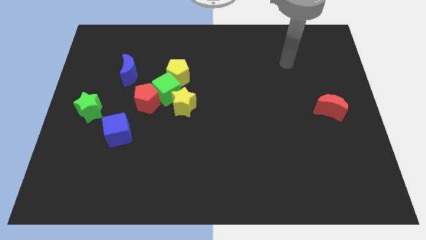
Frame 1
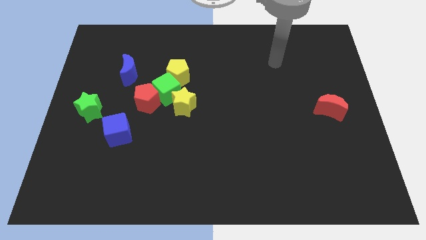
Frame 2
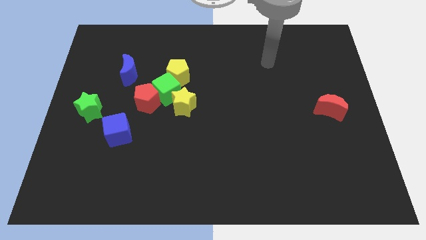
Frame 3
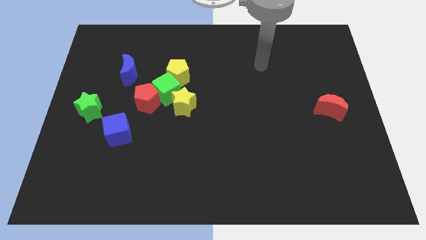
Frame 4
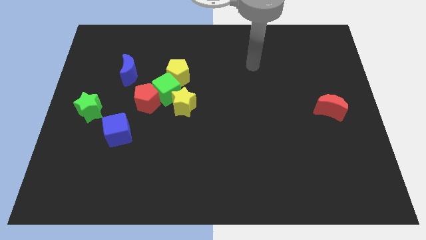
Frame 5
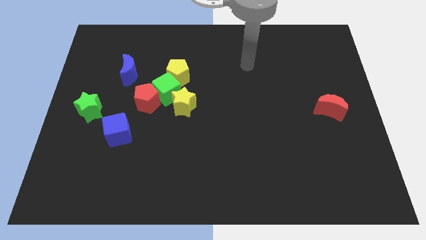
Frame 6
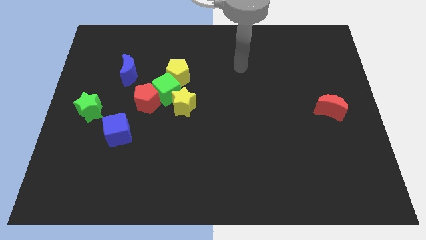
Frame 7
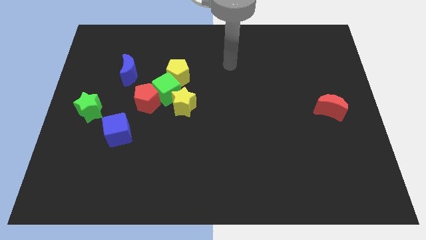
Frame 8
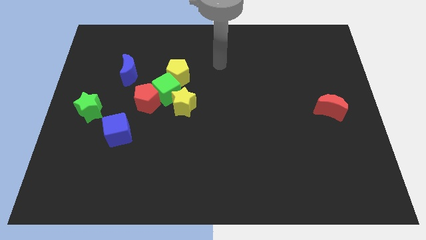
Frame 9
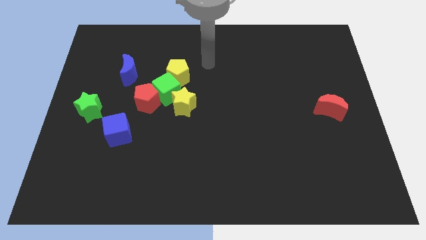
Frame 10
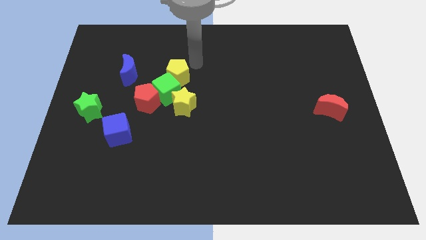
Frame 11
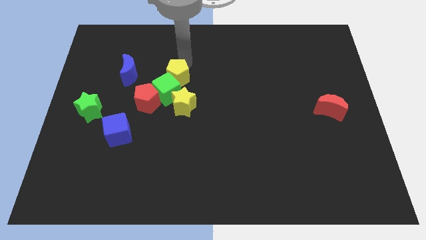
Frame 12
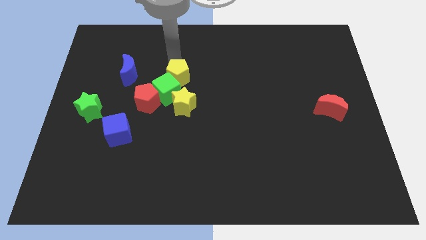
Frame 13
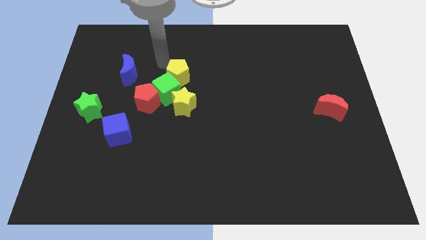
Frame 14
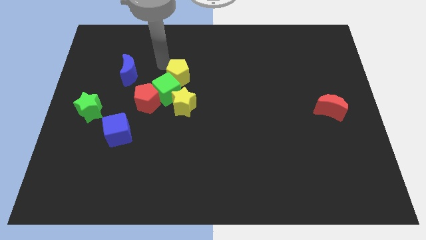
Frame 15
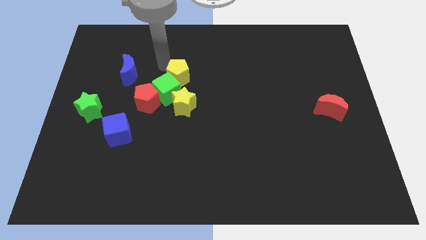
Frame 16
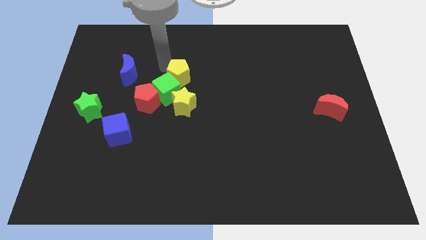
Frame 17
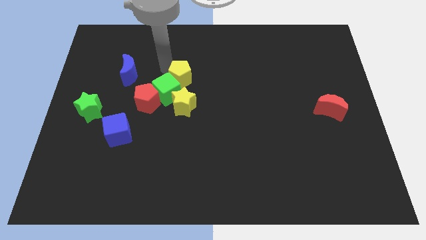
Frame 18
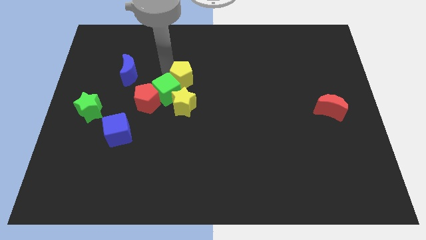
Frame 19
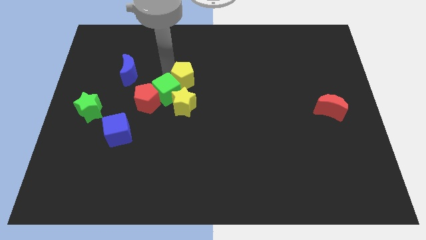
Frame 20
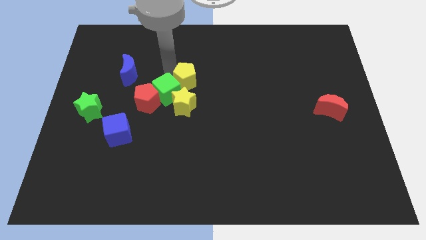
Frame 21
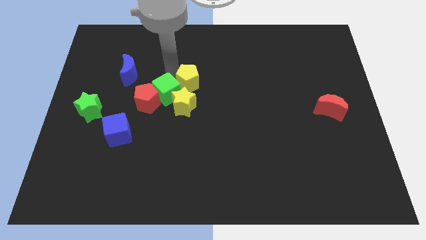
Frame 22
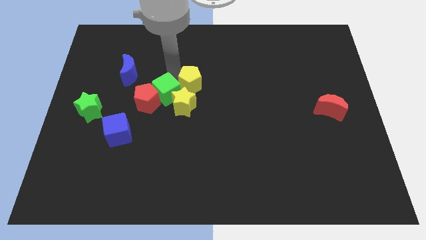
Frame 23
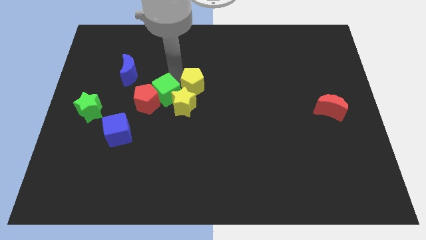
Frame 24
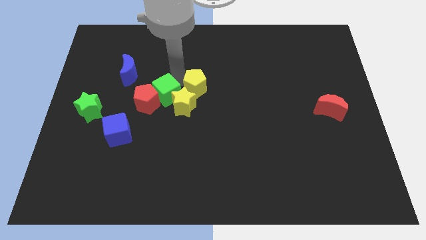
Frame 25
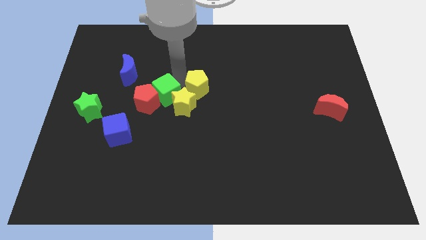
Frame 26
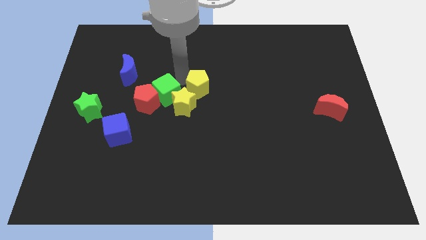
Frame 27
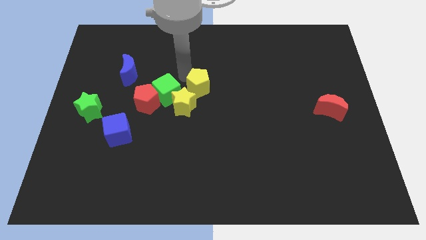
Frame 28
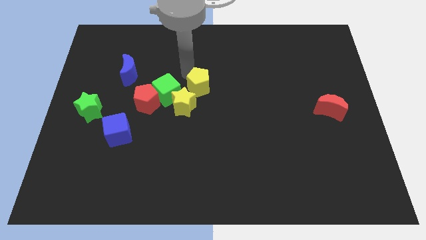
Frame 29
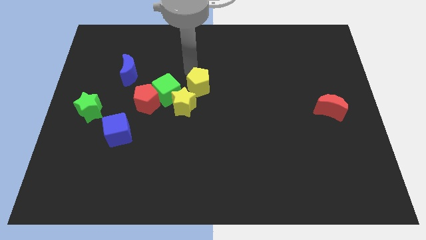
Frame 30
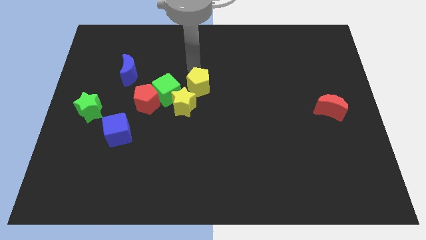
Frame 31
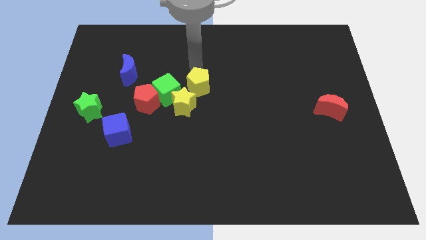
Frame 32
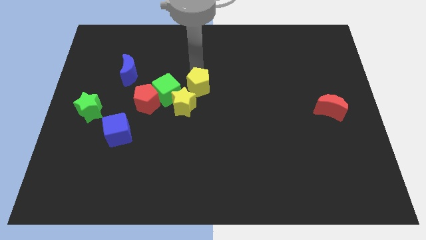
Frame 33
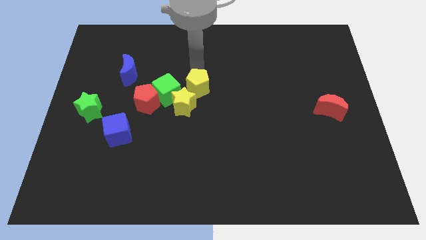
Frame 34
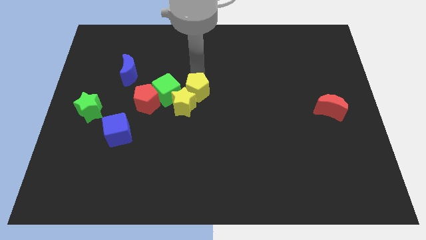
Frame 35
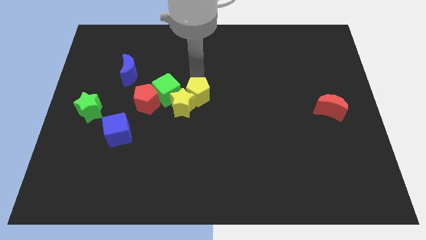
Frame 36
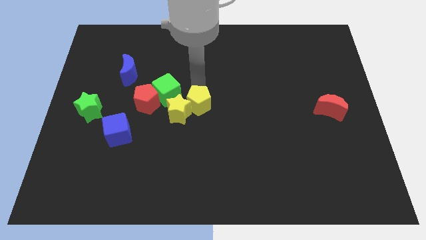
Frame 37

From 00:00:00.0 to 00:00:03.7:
slightly slide the yellow pentagon down

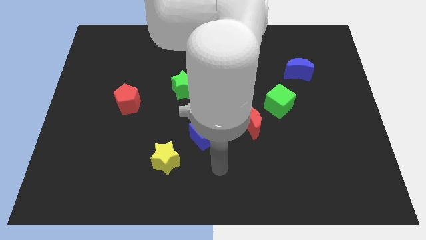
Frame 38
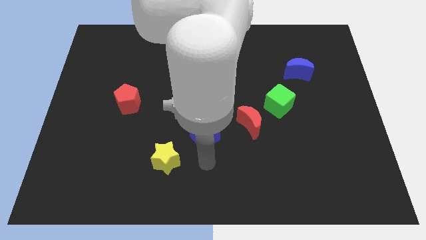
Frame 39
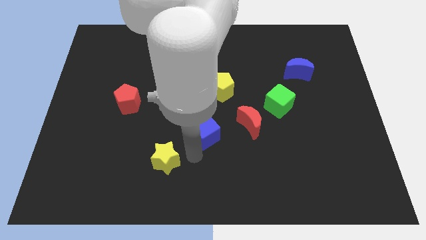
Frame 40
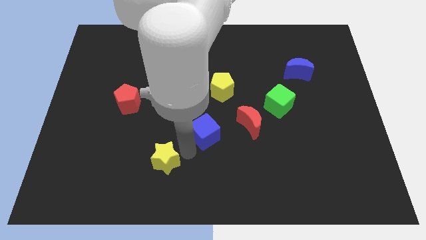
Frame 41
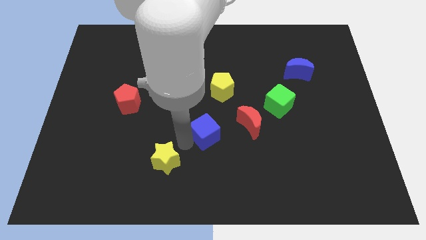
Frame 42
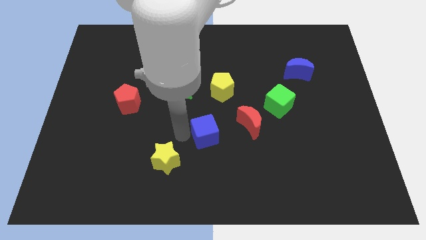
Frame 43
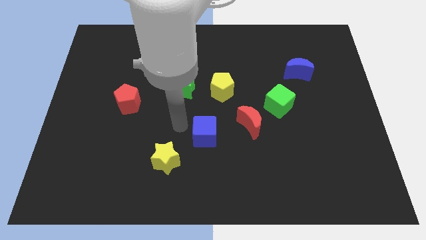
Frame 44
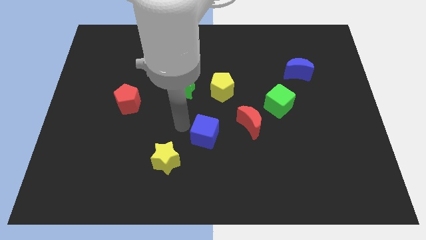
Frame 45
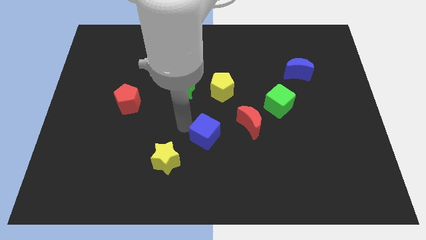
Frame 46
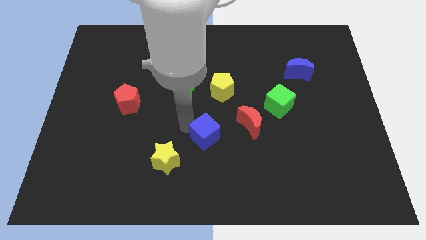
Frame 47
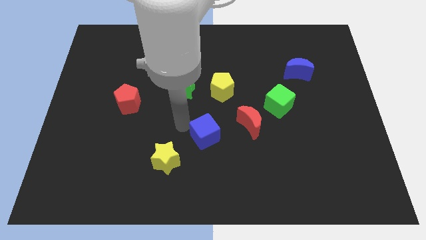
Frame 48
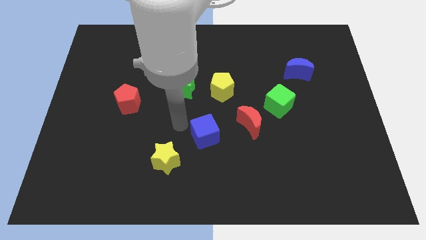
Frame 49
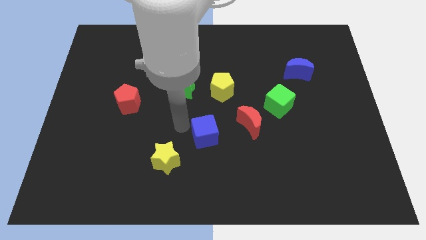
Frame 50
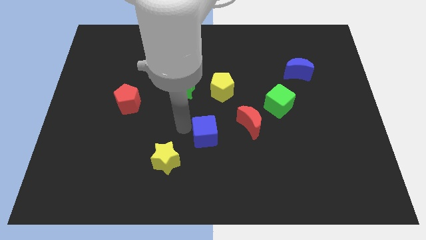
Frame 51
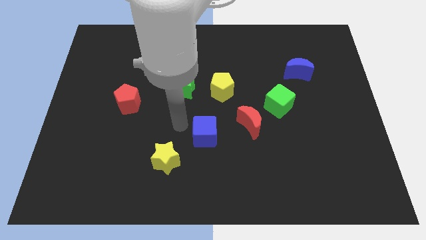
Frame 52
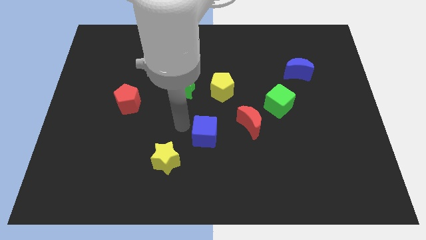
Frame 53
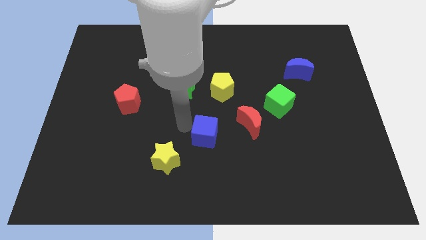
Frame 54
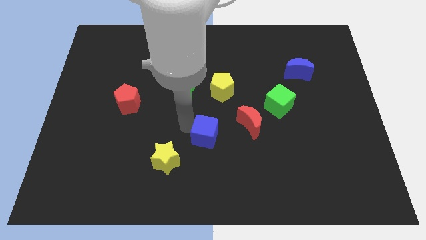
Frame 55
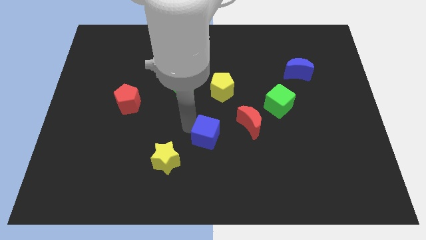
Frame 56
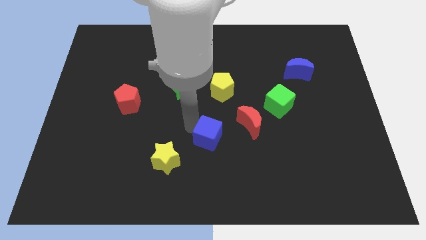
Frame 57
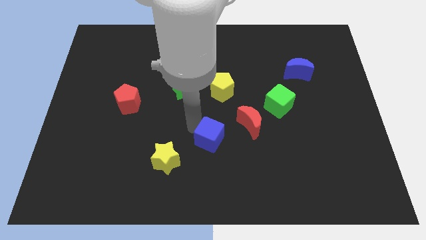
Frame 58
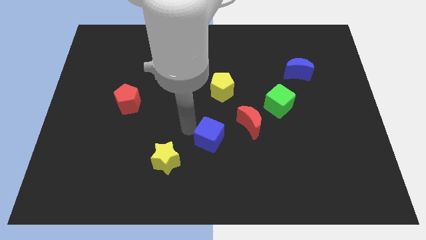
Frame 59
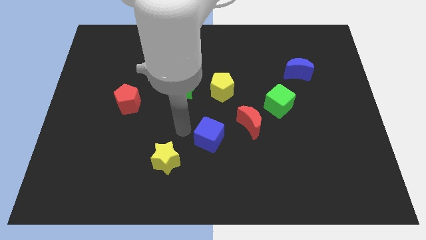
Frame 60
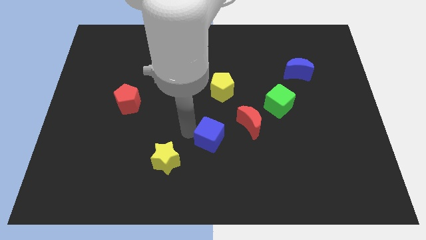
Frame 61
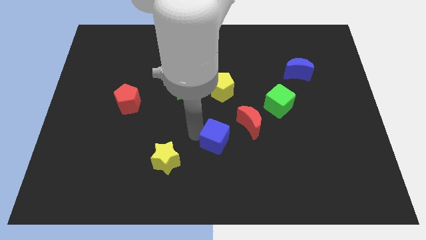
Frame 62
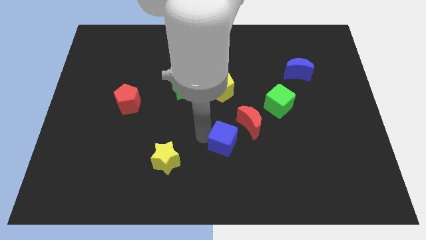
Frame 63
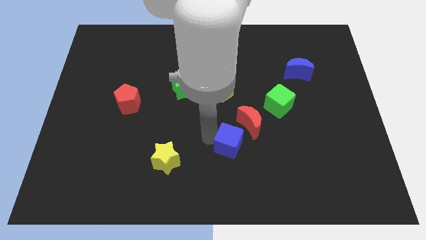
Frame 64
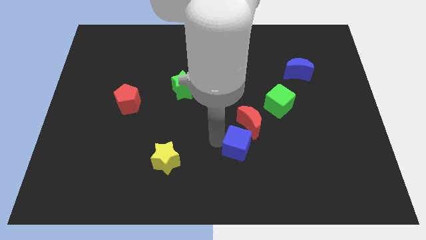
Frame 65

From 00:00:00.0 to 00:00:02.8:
slightly slide the blue cube right

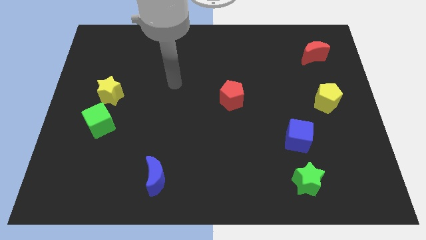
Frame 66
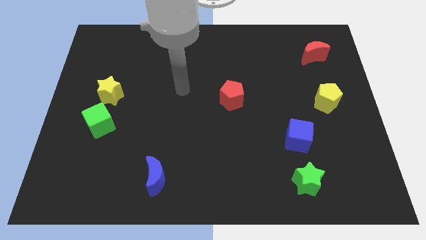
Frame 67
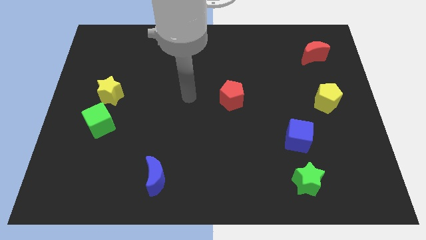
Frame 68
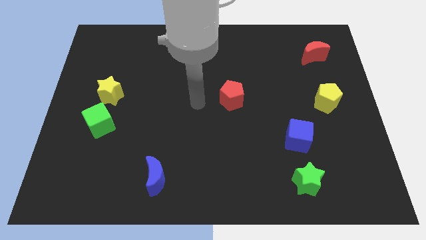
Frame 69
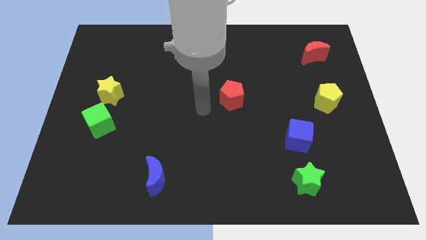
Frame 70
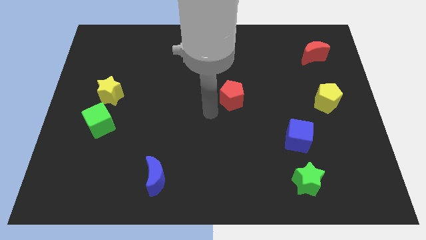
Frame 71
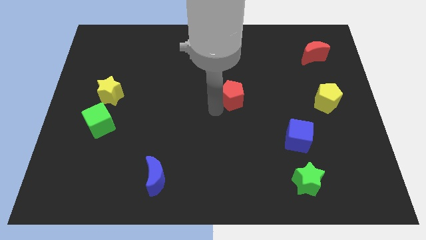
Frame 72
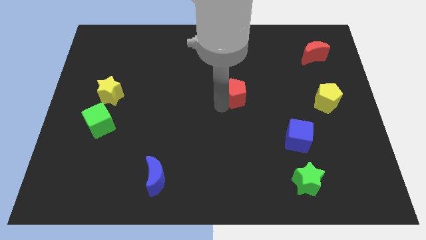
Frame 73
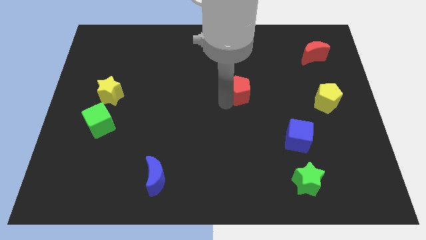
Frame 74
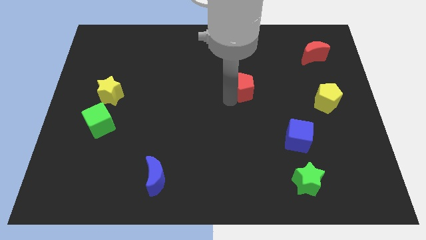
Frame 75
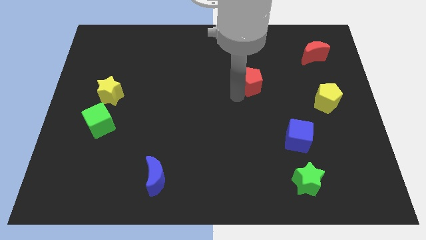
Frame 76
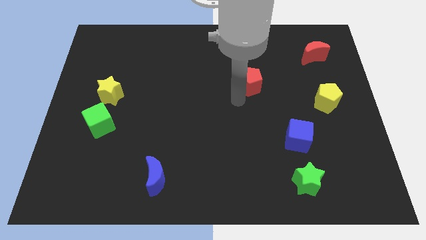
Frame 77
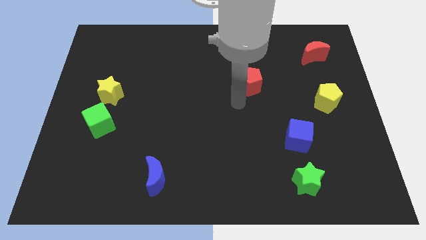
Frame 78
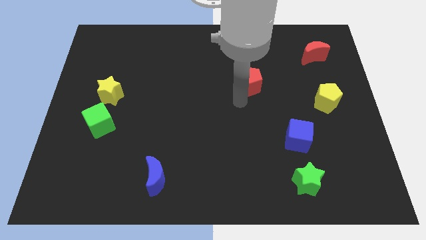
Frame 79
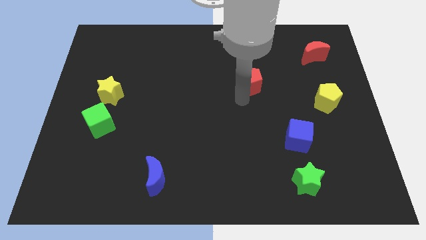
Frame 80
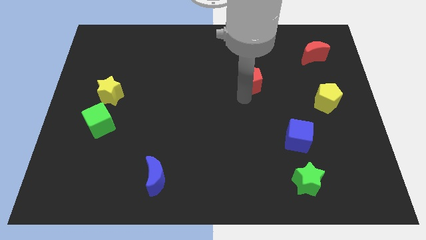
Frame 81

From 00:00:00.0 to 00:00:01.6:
slightly slide the red pentagon up and then right

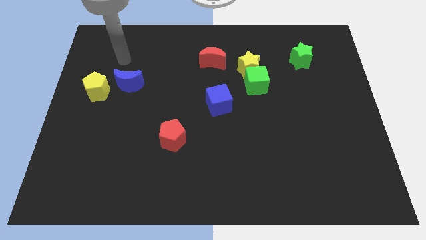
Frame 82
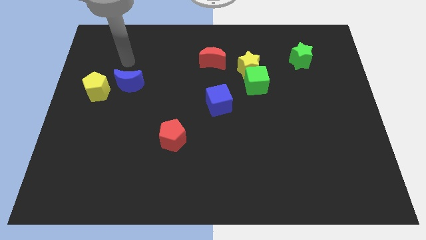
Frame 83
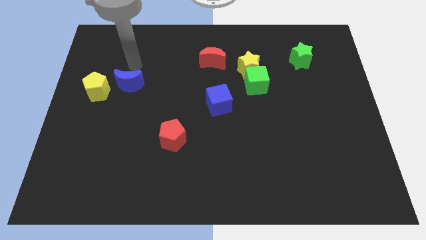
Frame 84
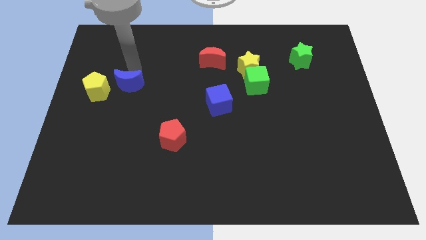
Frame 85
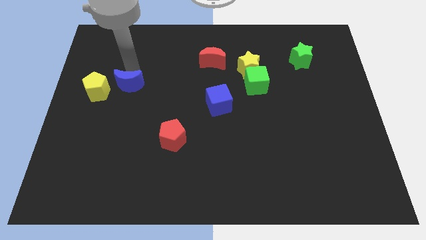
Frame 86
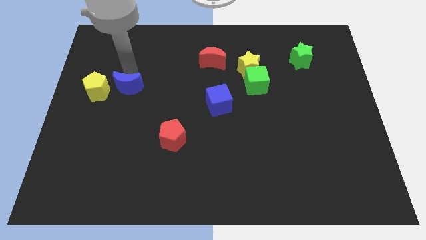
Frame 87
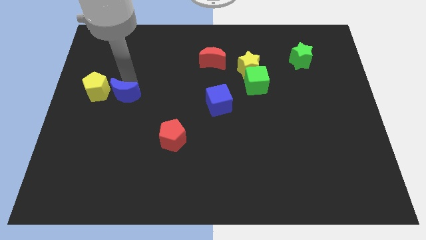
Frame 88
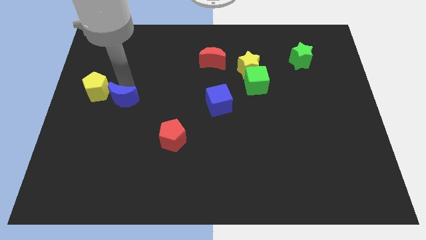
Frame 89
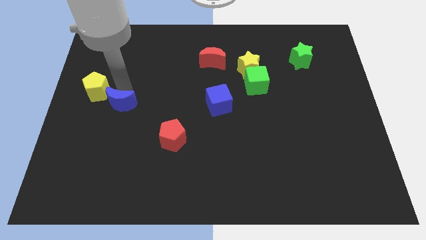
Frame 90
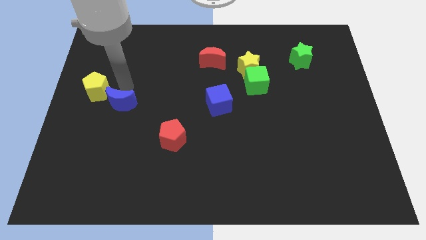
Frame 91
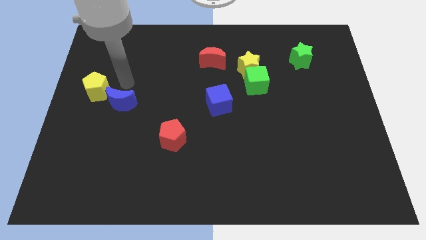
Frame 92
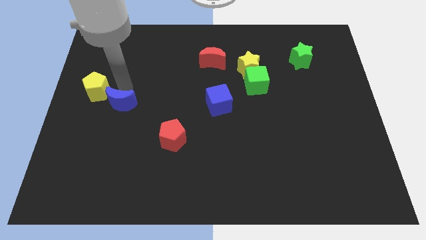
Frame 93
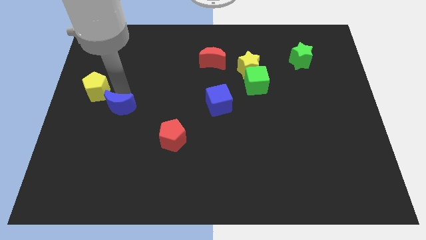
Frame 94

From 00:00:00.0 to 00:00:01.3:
slightly move the blue moon down
